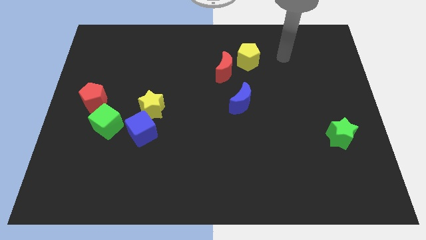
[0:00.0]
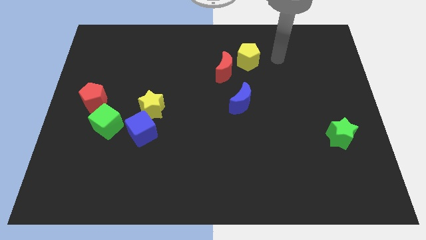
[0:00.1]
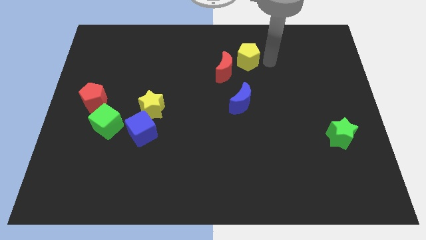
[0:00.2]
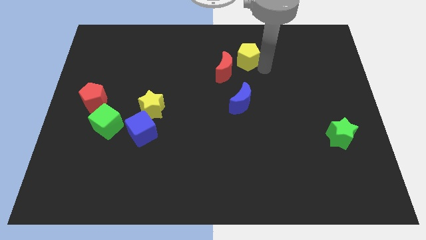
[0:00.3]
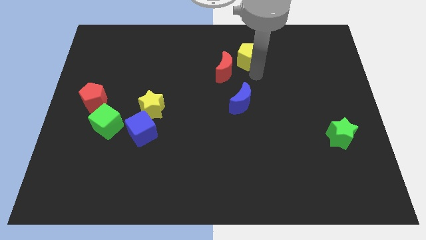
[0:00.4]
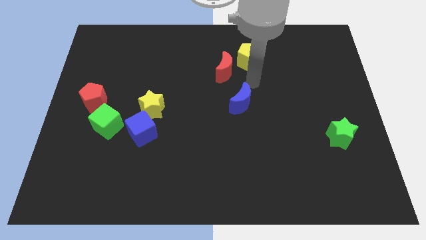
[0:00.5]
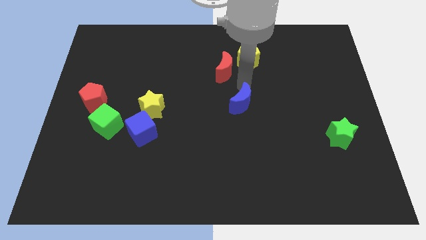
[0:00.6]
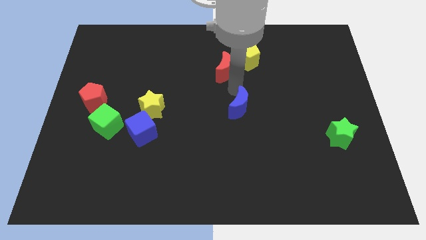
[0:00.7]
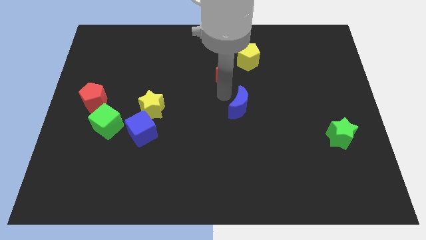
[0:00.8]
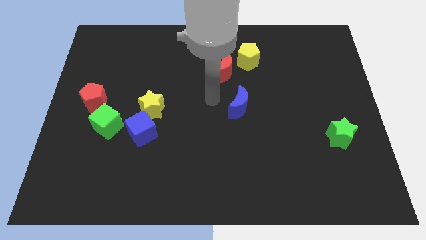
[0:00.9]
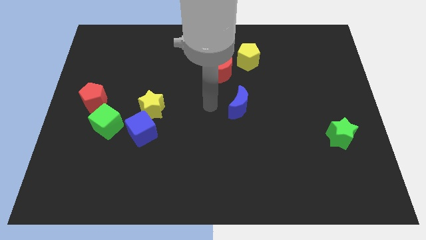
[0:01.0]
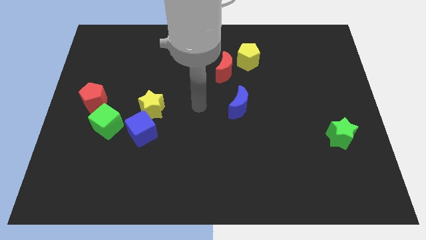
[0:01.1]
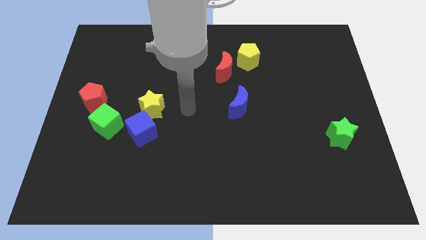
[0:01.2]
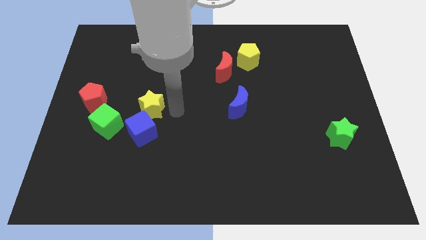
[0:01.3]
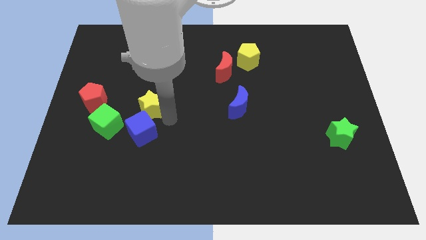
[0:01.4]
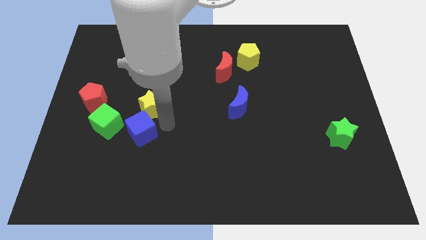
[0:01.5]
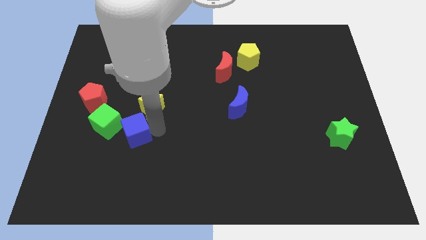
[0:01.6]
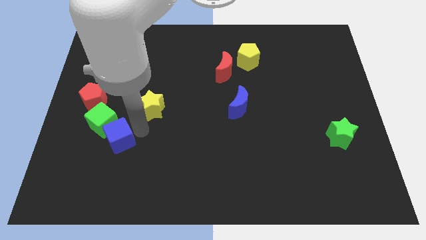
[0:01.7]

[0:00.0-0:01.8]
pull the yellow star apart from the blue cube

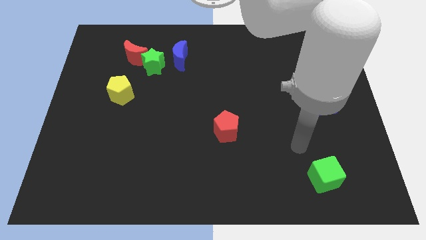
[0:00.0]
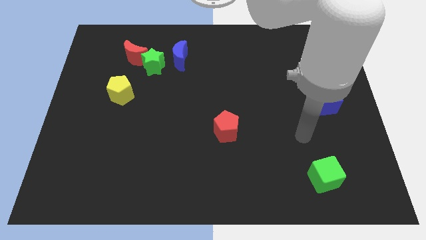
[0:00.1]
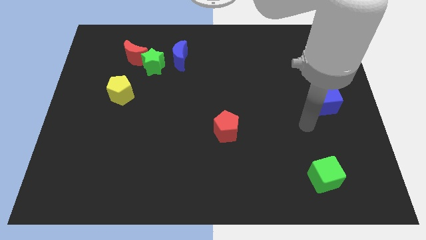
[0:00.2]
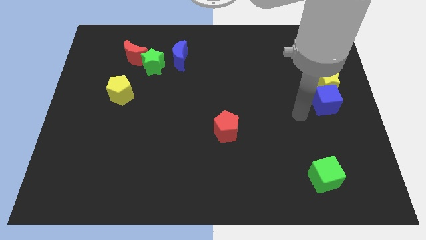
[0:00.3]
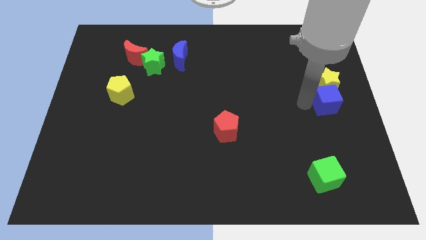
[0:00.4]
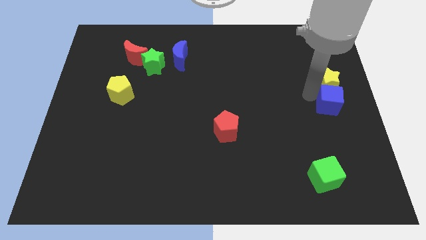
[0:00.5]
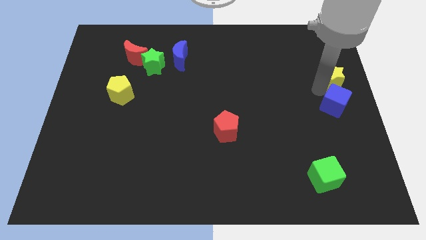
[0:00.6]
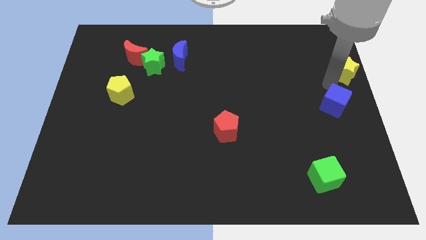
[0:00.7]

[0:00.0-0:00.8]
pull the blue cube apart from the yellow star

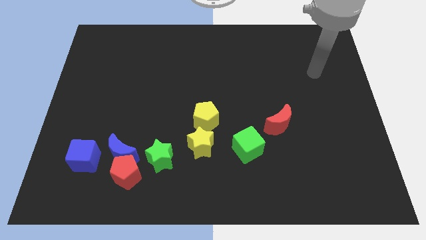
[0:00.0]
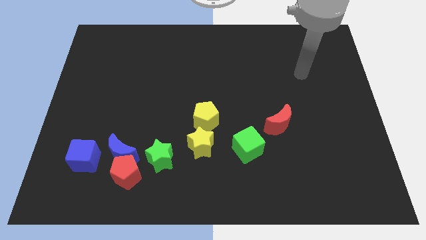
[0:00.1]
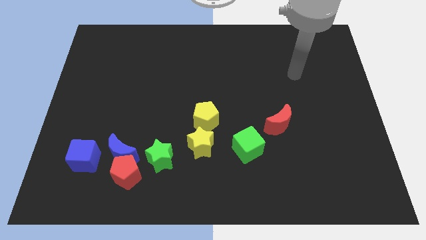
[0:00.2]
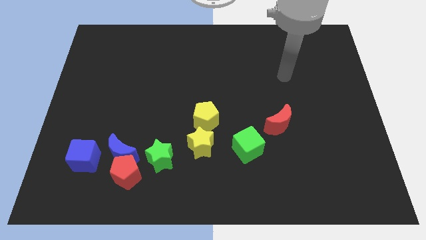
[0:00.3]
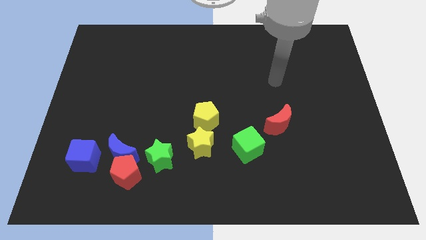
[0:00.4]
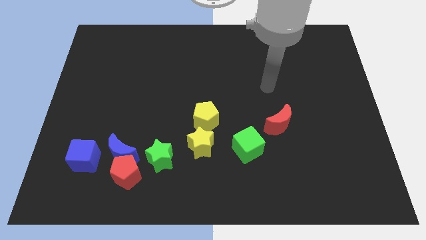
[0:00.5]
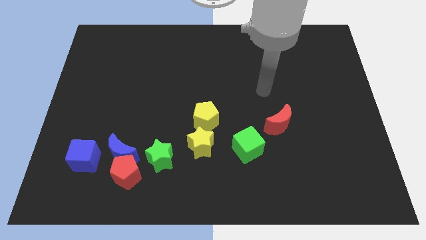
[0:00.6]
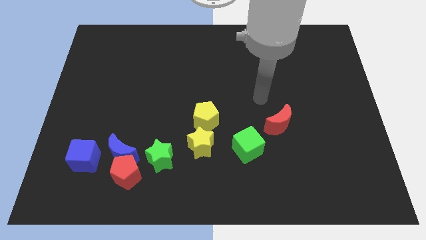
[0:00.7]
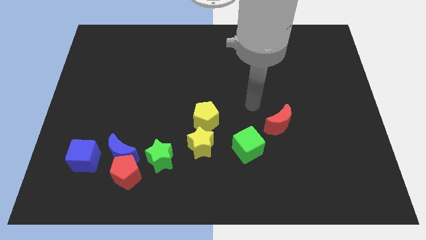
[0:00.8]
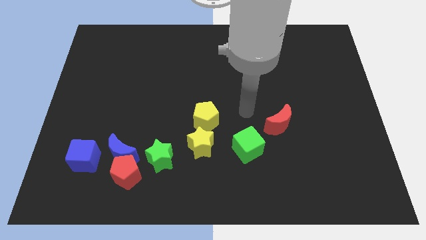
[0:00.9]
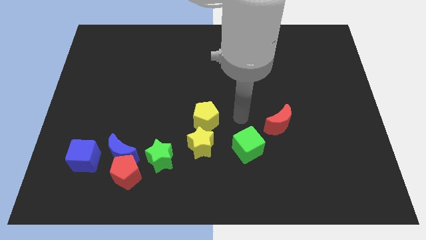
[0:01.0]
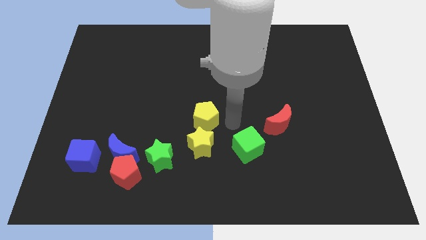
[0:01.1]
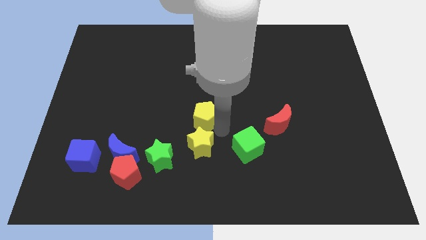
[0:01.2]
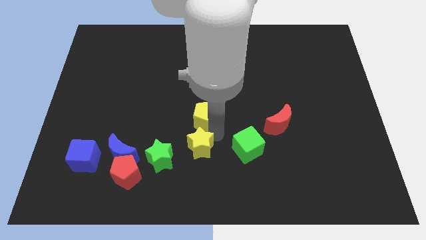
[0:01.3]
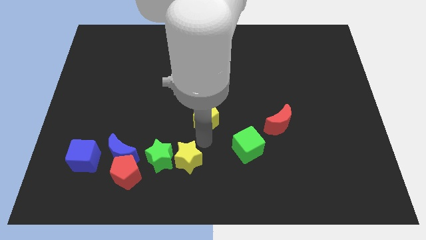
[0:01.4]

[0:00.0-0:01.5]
separate the yellow pentagon from the yellow star

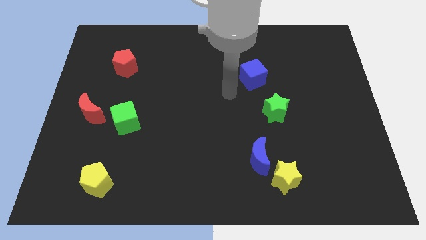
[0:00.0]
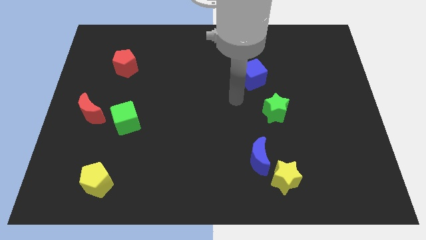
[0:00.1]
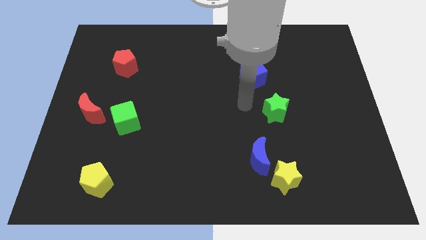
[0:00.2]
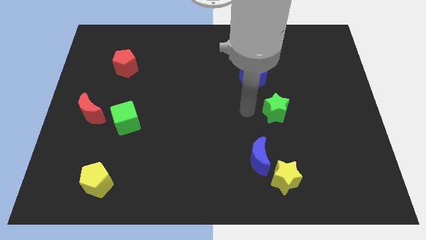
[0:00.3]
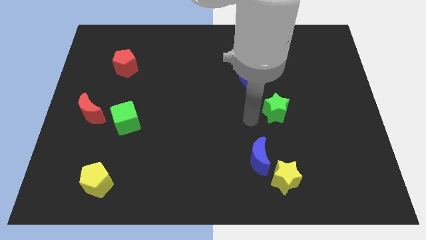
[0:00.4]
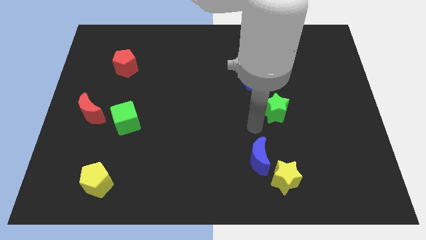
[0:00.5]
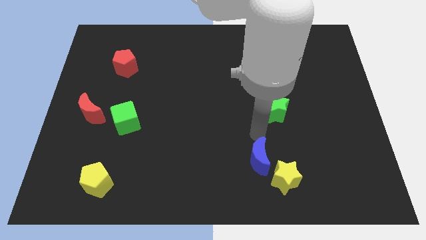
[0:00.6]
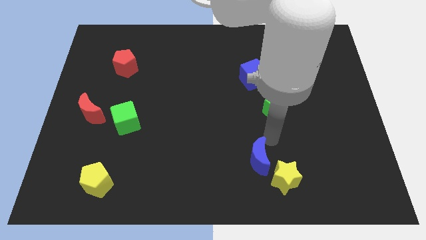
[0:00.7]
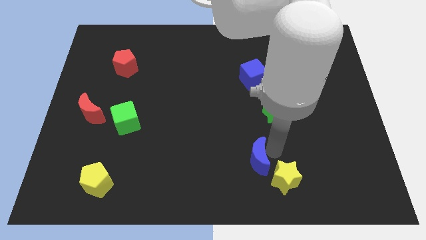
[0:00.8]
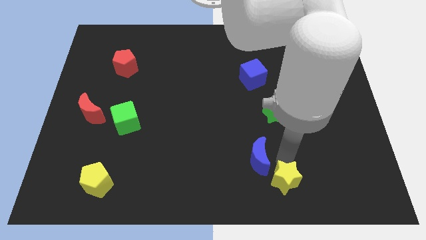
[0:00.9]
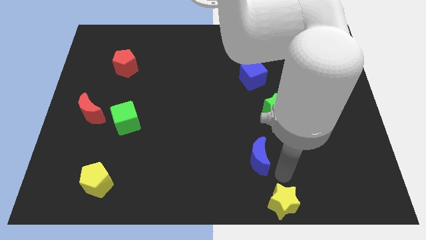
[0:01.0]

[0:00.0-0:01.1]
move the blue moon away from the yellow star

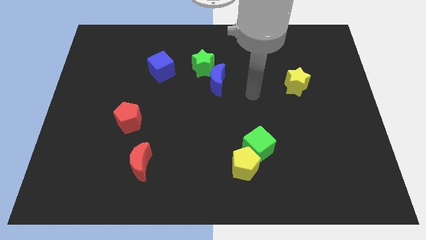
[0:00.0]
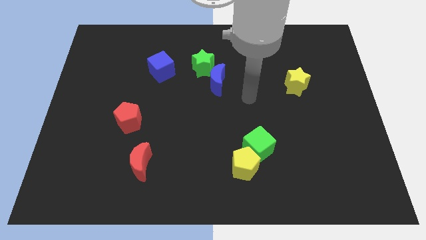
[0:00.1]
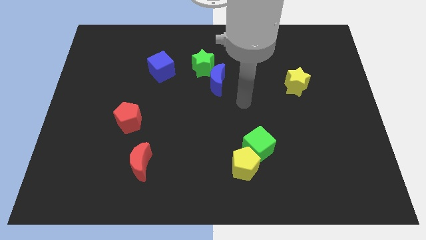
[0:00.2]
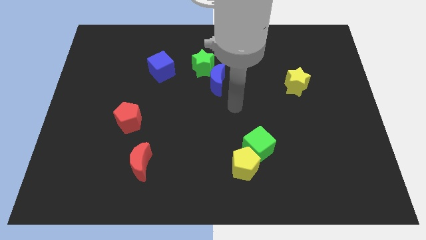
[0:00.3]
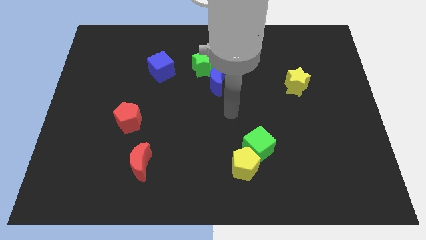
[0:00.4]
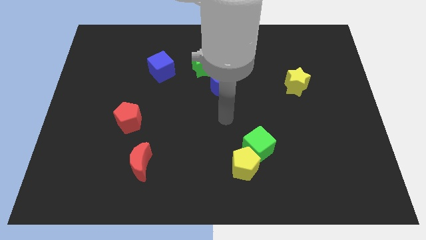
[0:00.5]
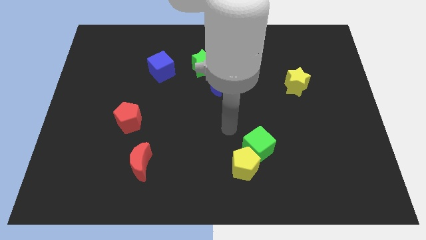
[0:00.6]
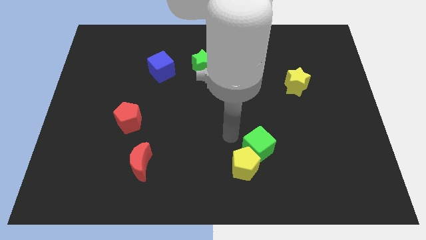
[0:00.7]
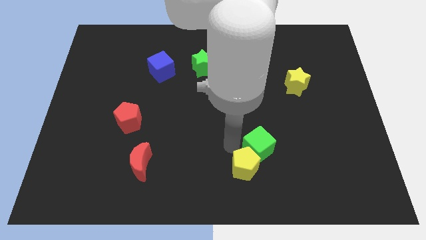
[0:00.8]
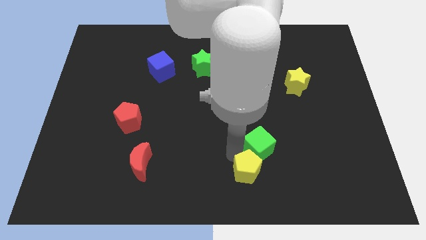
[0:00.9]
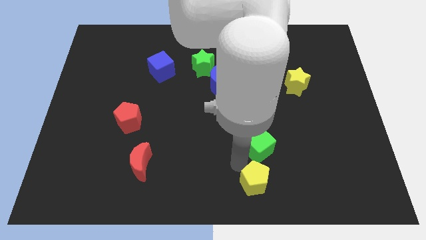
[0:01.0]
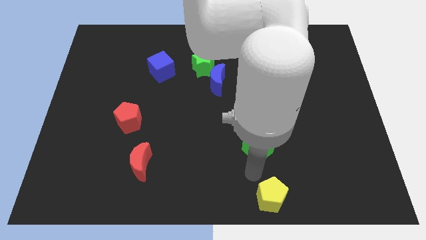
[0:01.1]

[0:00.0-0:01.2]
pull the green cube apart from the yellow pentagon

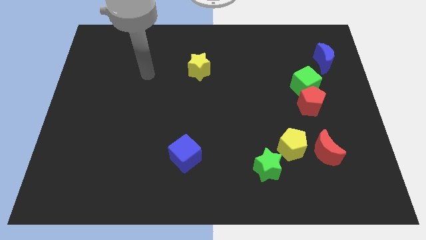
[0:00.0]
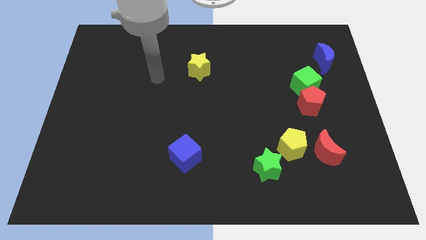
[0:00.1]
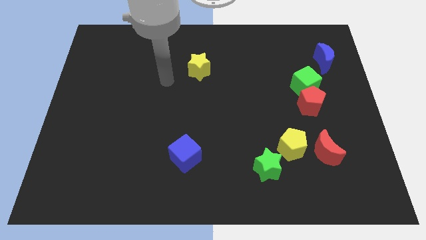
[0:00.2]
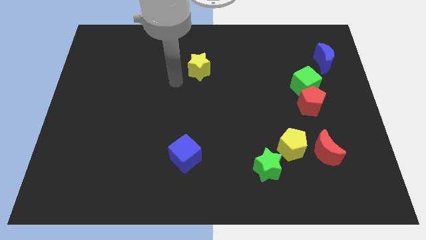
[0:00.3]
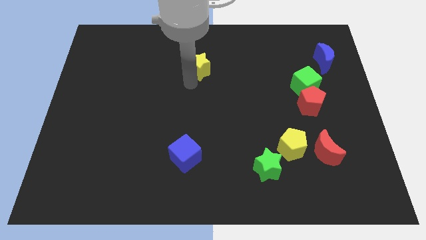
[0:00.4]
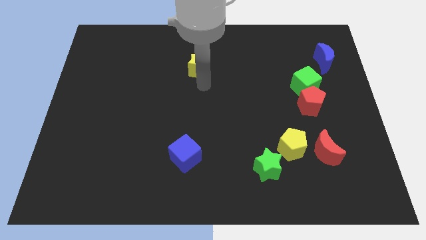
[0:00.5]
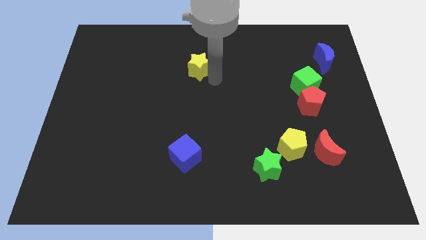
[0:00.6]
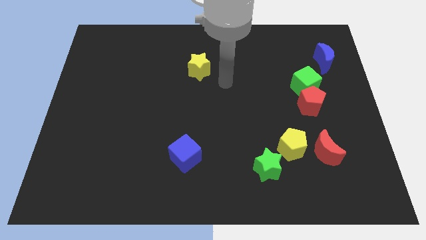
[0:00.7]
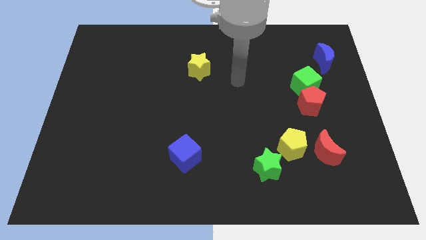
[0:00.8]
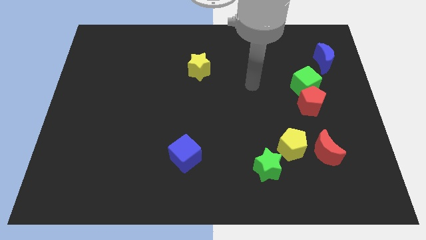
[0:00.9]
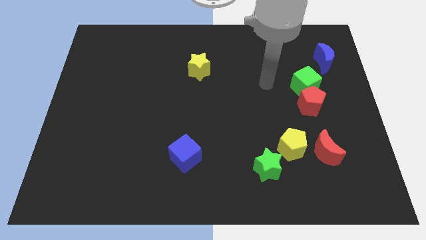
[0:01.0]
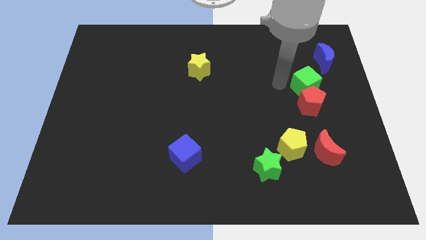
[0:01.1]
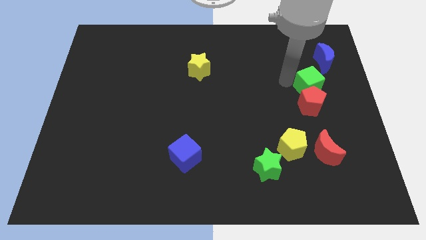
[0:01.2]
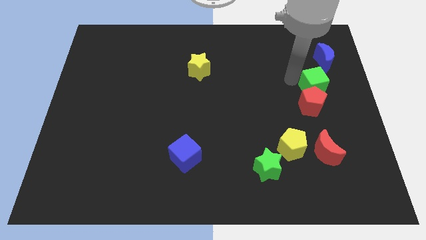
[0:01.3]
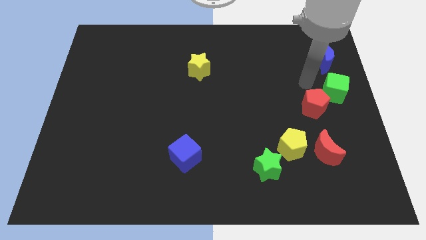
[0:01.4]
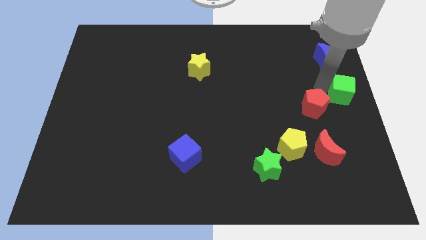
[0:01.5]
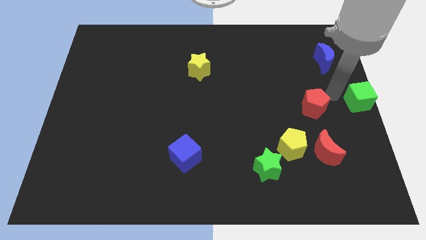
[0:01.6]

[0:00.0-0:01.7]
separate the red pentagon from the green cube

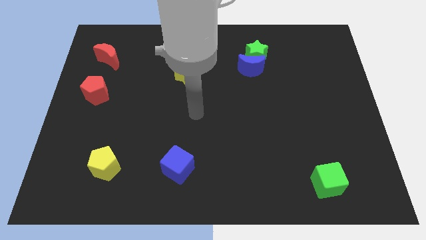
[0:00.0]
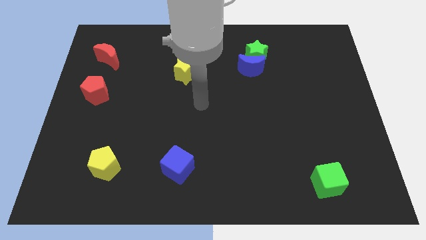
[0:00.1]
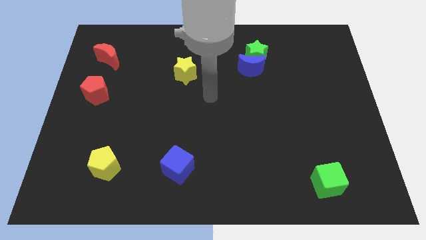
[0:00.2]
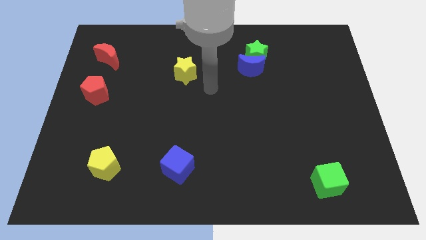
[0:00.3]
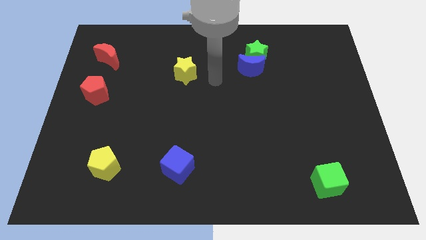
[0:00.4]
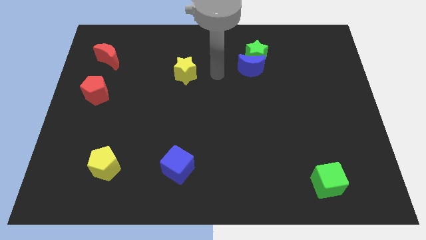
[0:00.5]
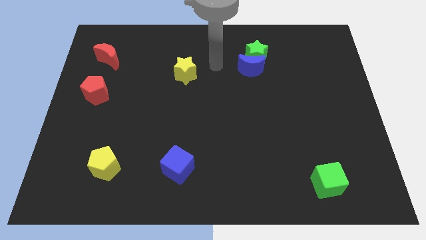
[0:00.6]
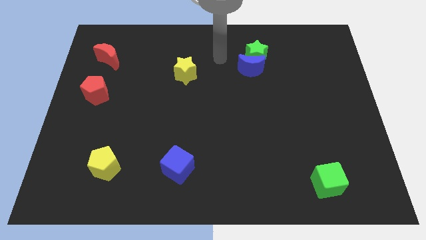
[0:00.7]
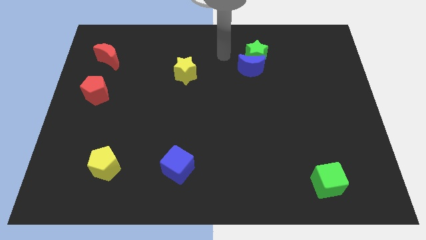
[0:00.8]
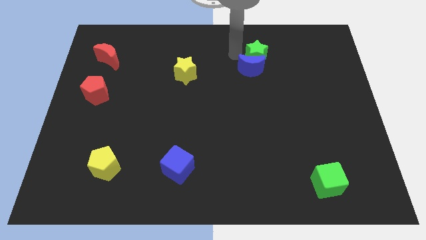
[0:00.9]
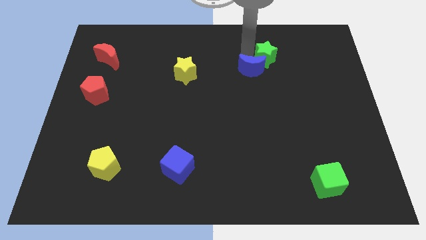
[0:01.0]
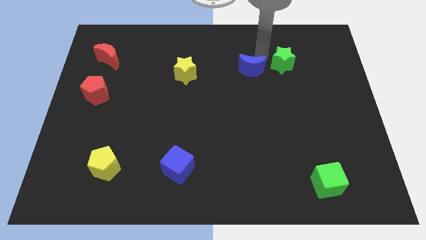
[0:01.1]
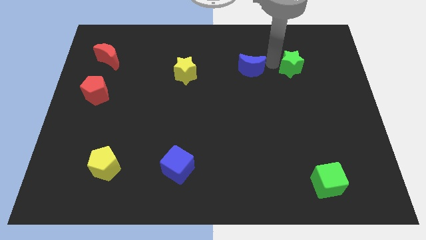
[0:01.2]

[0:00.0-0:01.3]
pull the blue moon apart from the green star
